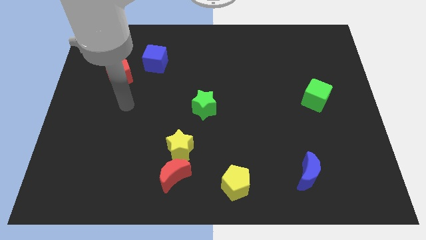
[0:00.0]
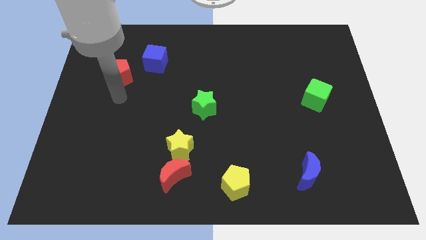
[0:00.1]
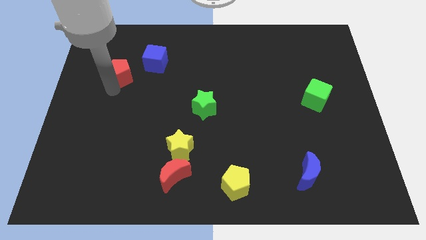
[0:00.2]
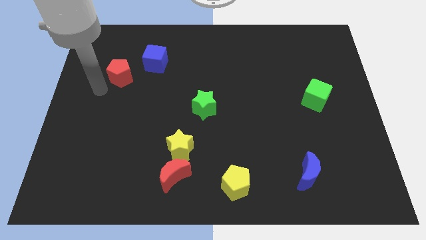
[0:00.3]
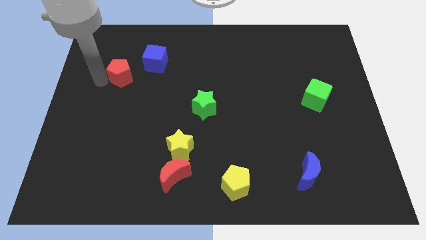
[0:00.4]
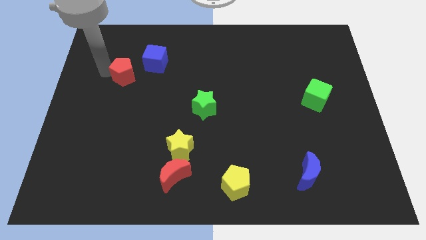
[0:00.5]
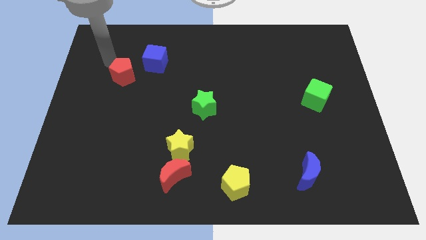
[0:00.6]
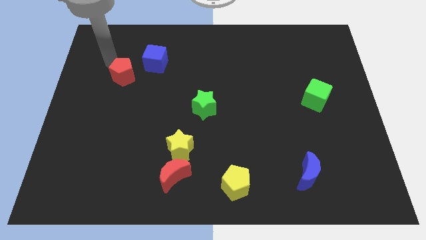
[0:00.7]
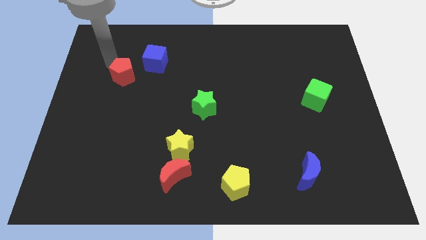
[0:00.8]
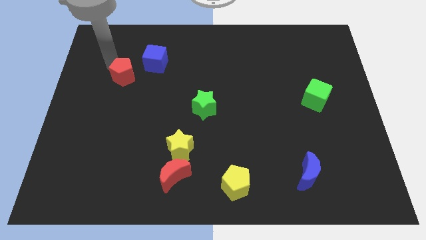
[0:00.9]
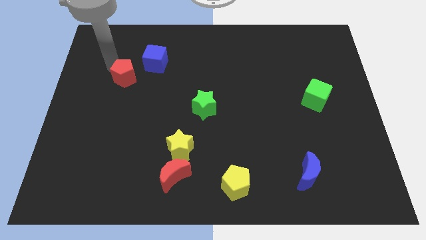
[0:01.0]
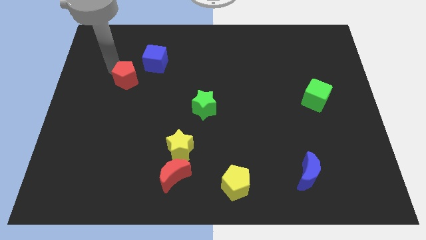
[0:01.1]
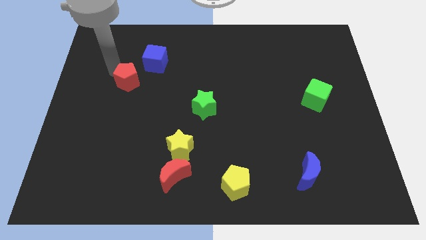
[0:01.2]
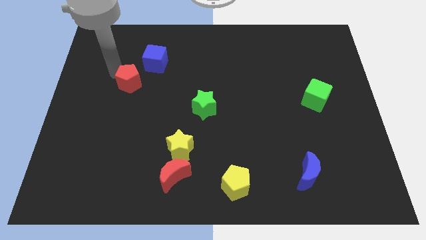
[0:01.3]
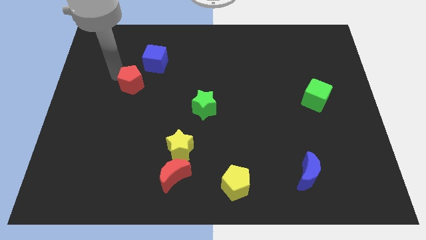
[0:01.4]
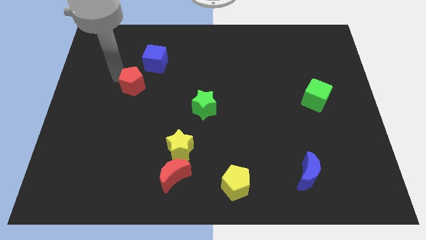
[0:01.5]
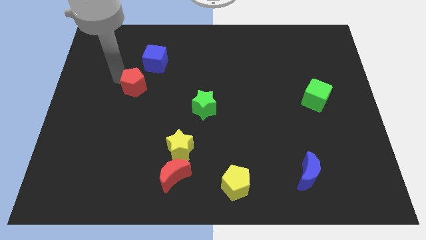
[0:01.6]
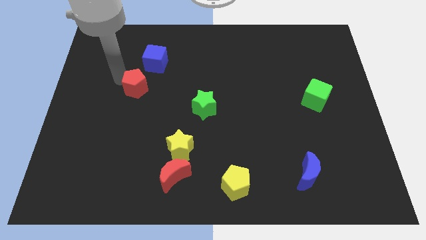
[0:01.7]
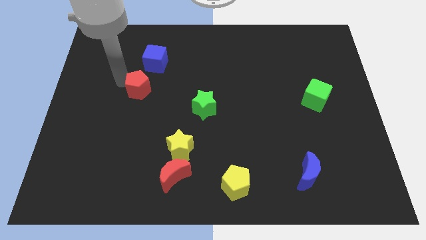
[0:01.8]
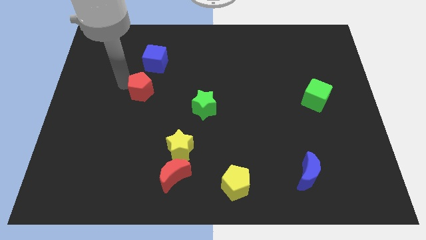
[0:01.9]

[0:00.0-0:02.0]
push the red pentagon diagonally down and to the right somewhat

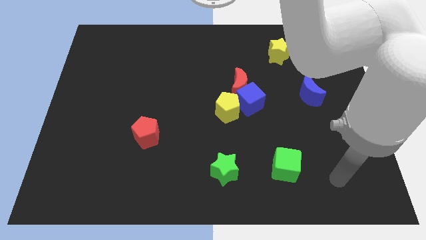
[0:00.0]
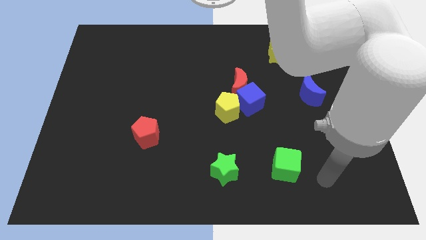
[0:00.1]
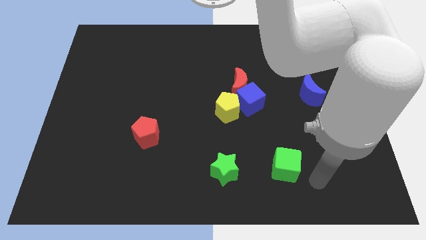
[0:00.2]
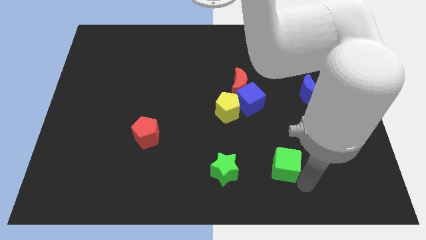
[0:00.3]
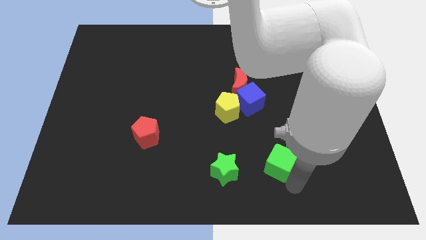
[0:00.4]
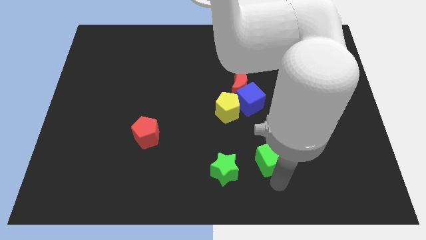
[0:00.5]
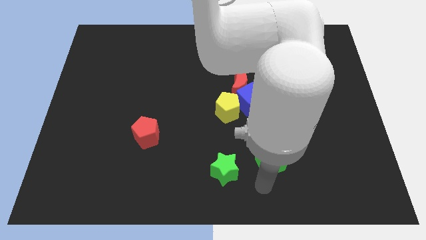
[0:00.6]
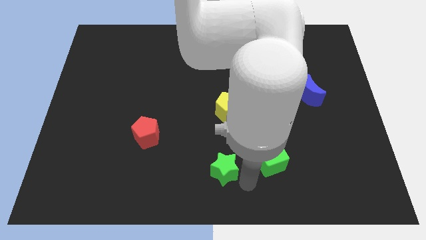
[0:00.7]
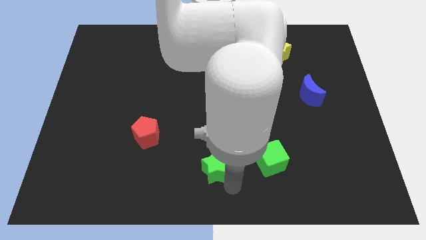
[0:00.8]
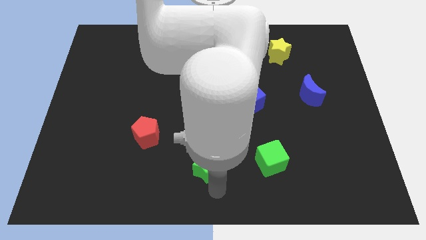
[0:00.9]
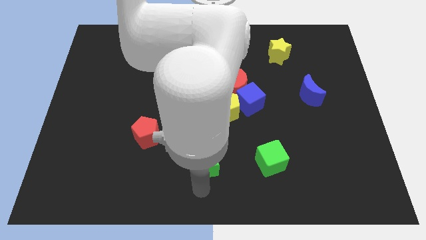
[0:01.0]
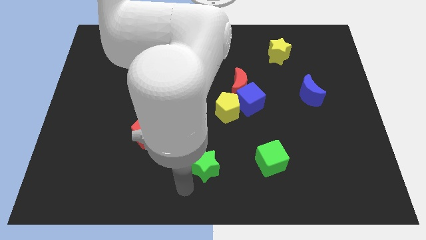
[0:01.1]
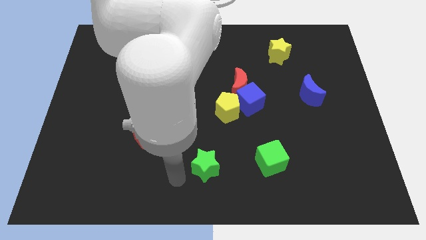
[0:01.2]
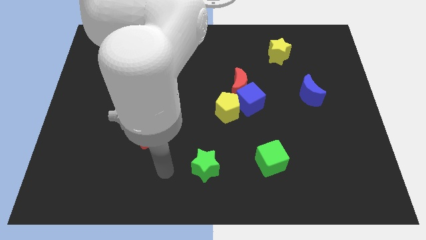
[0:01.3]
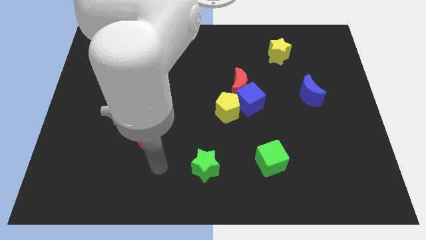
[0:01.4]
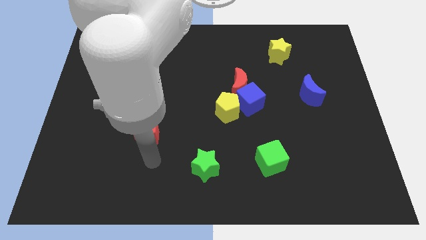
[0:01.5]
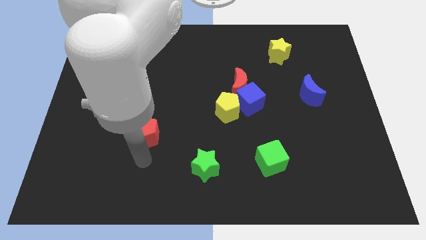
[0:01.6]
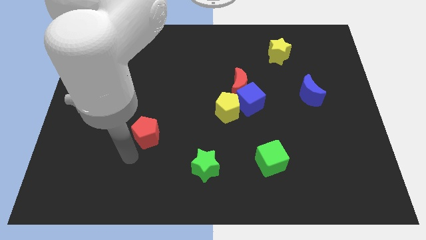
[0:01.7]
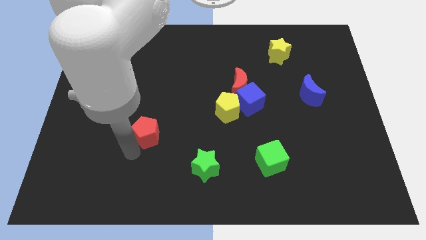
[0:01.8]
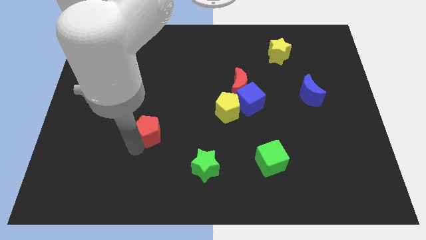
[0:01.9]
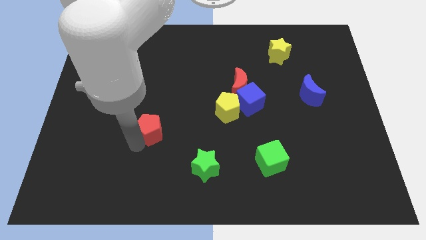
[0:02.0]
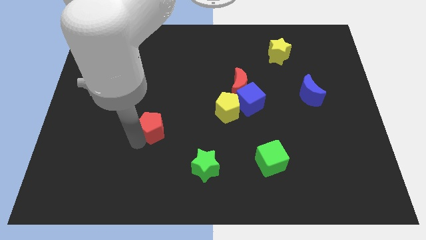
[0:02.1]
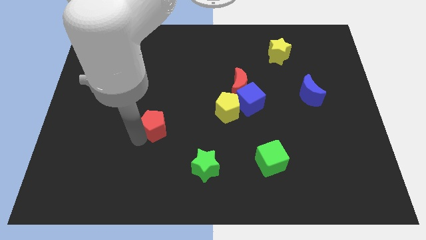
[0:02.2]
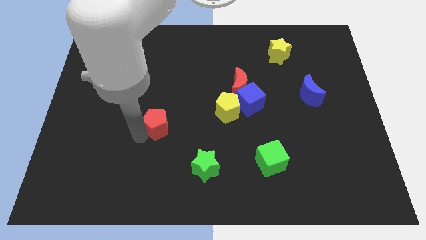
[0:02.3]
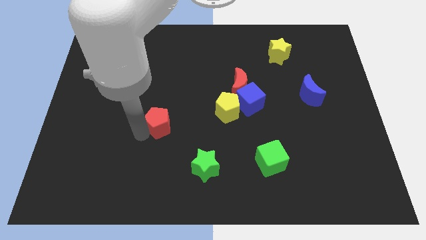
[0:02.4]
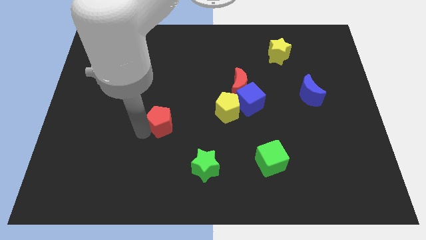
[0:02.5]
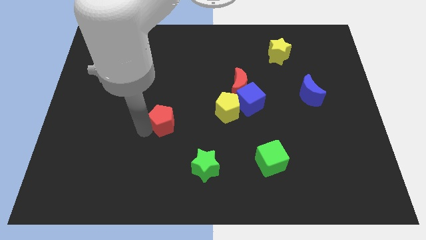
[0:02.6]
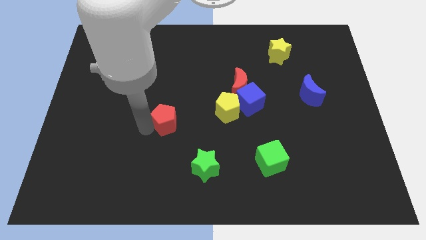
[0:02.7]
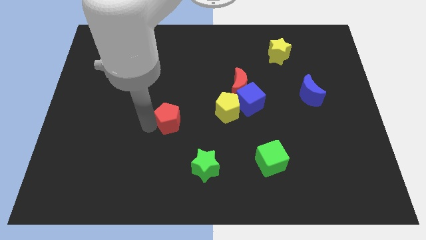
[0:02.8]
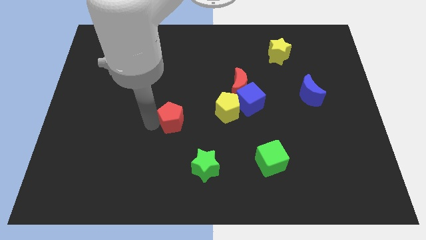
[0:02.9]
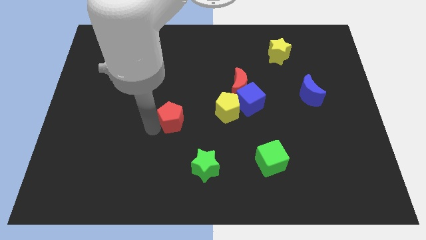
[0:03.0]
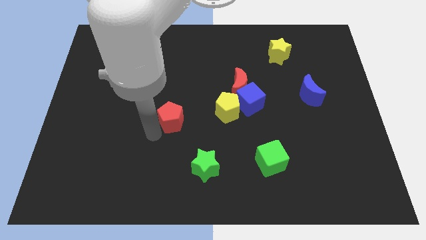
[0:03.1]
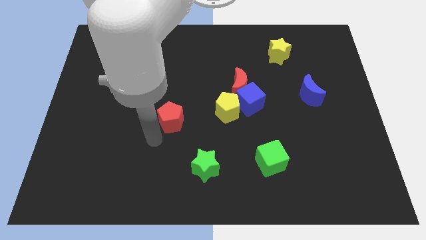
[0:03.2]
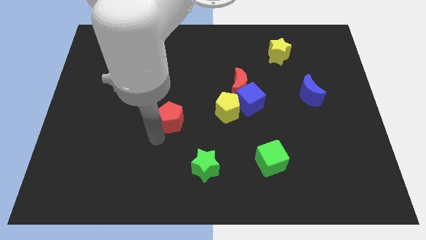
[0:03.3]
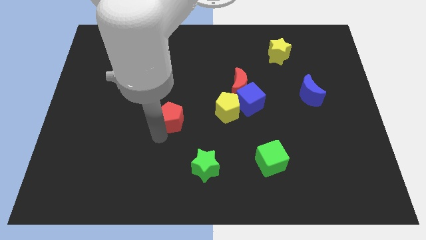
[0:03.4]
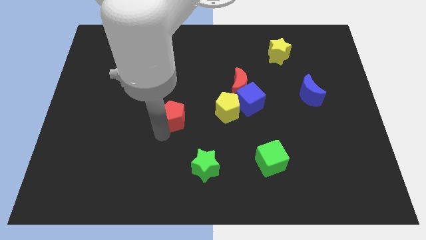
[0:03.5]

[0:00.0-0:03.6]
slide the red pentagon upwards and then right slightly

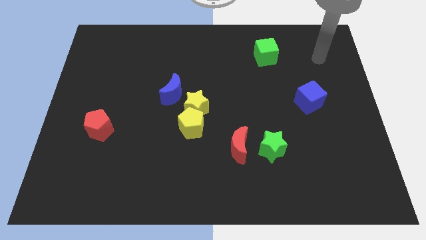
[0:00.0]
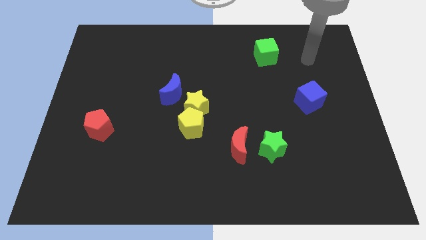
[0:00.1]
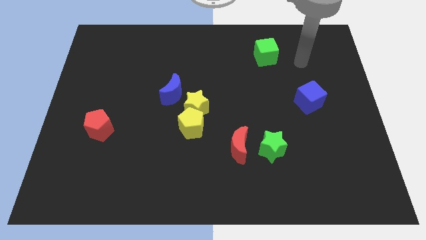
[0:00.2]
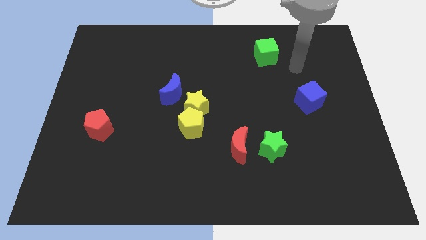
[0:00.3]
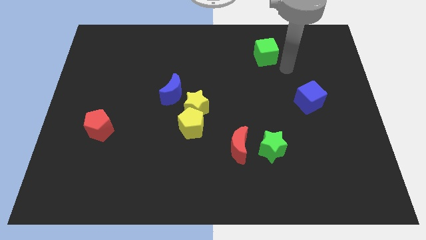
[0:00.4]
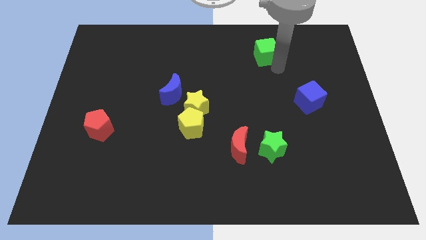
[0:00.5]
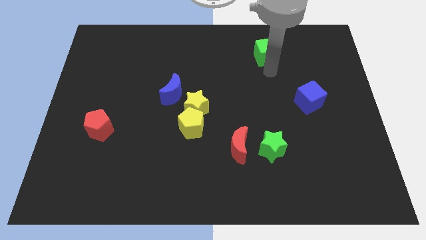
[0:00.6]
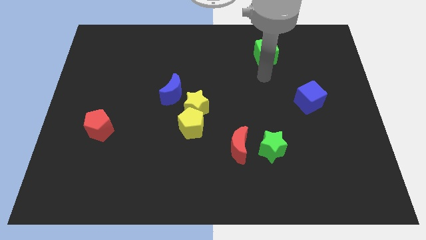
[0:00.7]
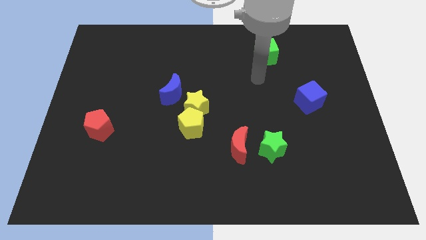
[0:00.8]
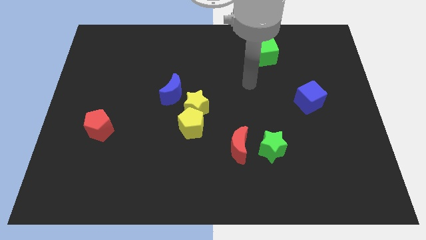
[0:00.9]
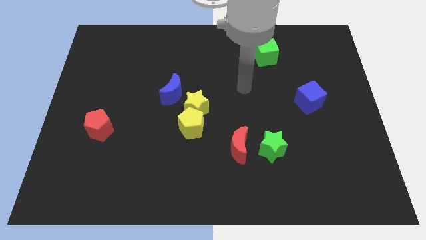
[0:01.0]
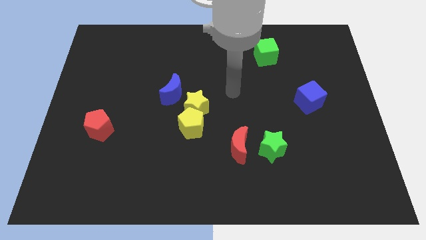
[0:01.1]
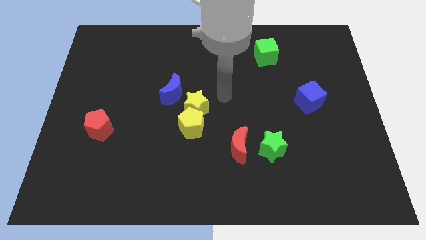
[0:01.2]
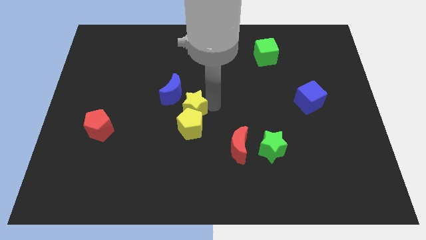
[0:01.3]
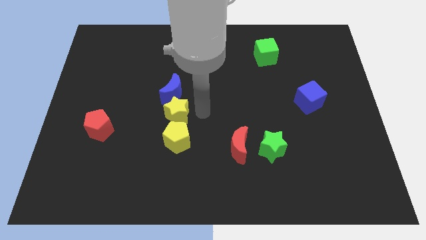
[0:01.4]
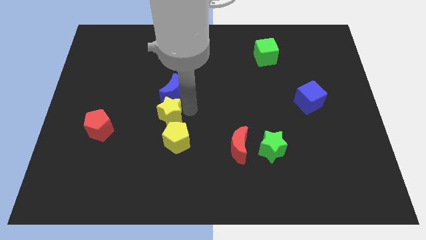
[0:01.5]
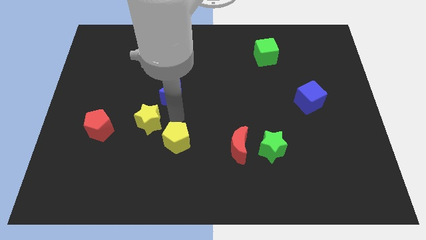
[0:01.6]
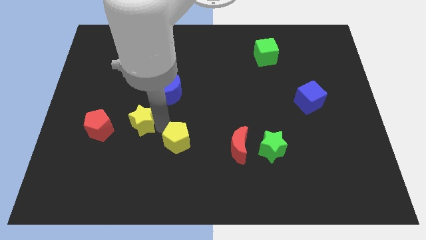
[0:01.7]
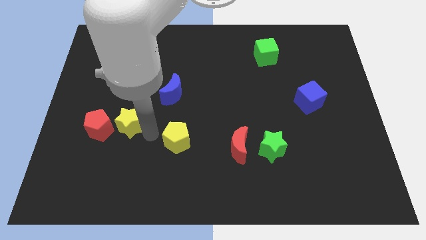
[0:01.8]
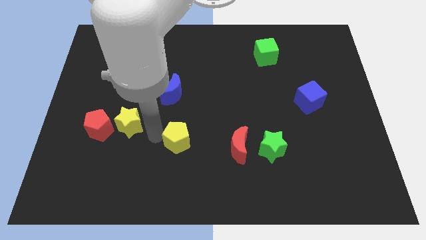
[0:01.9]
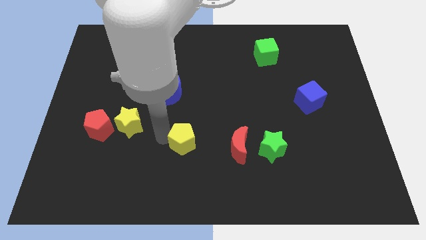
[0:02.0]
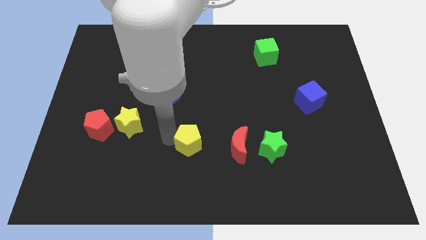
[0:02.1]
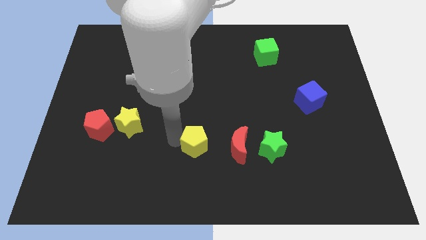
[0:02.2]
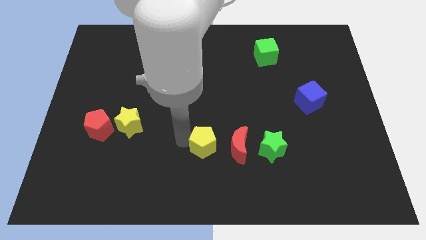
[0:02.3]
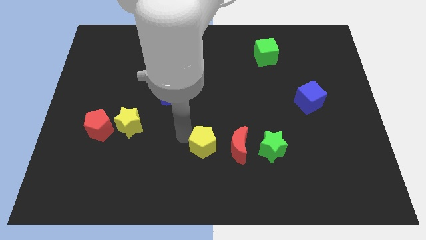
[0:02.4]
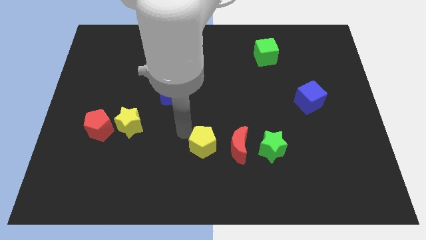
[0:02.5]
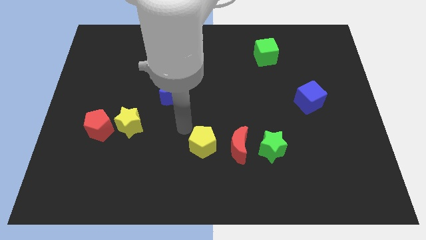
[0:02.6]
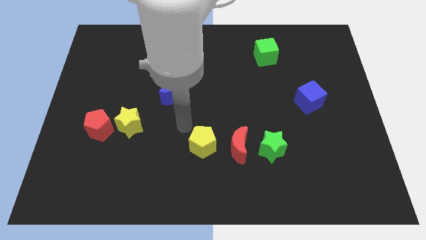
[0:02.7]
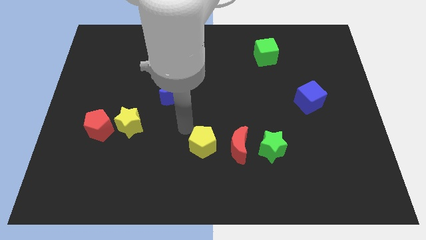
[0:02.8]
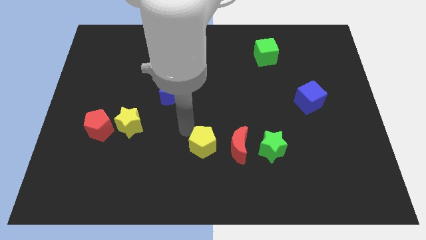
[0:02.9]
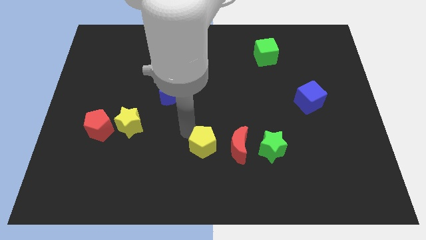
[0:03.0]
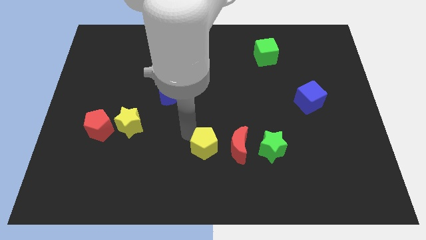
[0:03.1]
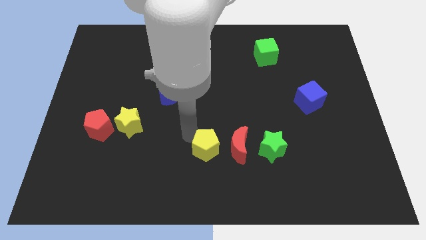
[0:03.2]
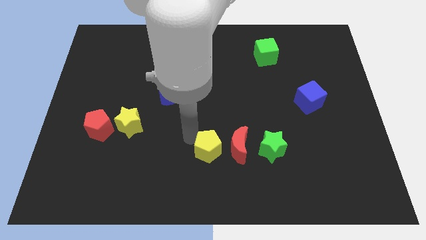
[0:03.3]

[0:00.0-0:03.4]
move the yellow pentagon a bit down and to the right diagonally
